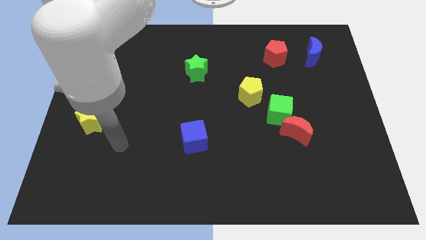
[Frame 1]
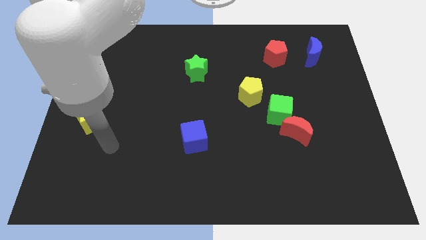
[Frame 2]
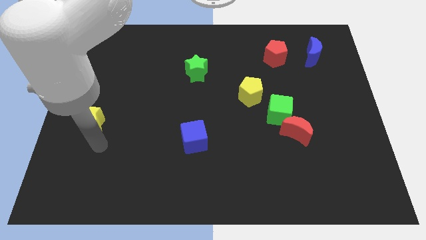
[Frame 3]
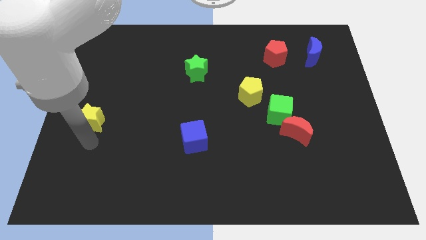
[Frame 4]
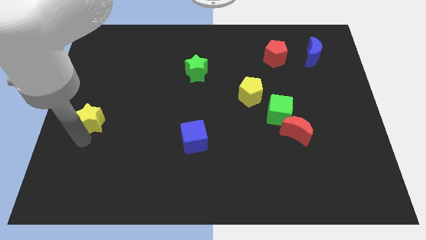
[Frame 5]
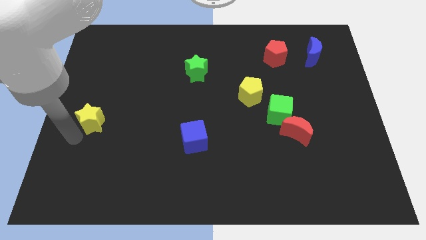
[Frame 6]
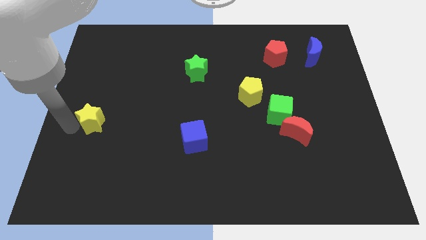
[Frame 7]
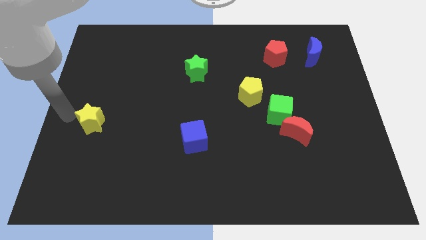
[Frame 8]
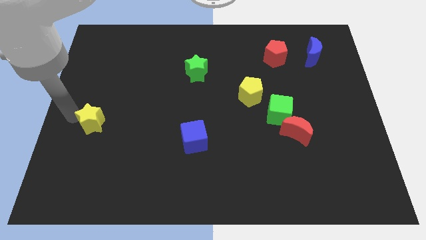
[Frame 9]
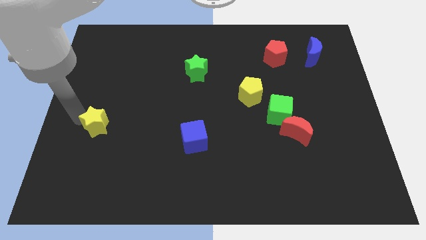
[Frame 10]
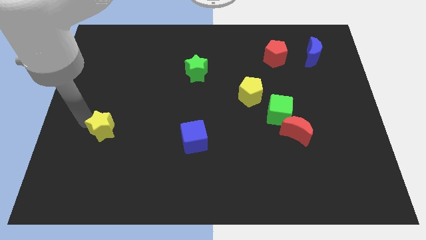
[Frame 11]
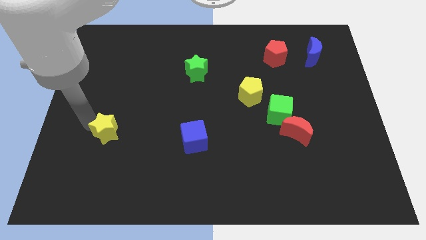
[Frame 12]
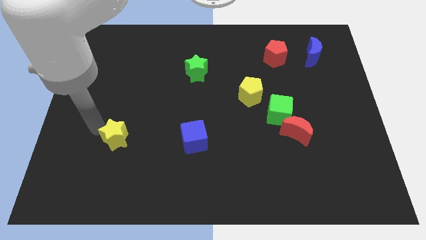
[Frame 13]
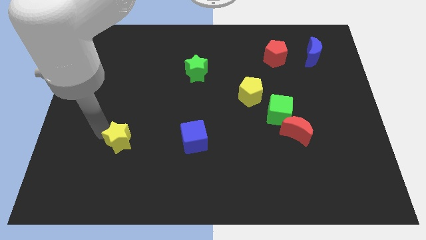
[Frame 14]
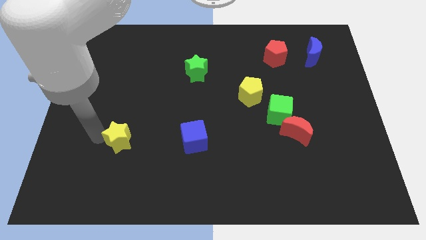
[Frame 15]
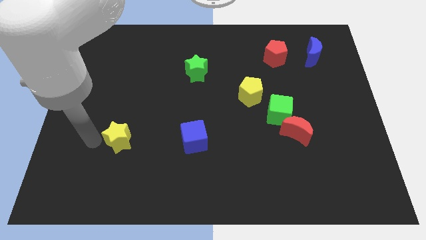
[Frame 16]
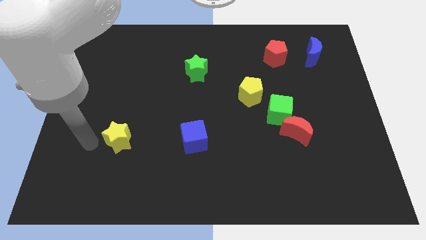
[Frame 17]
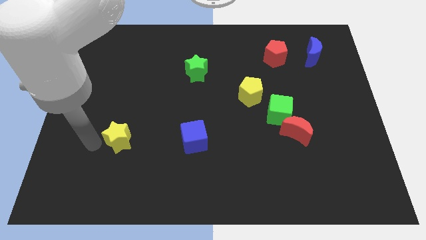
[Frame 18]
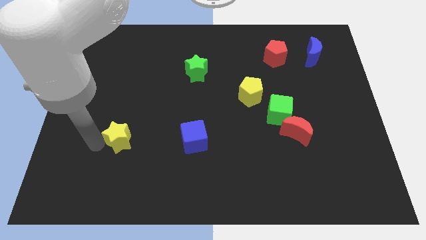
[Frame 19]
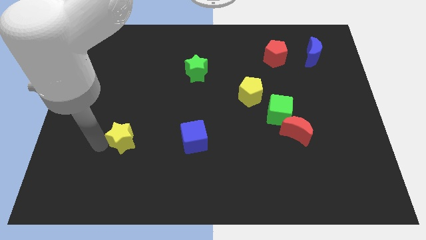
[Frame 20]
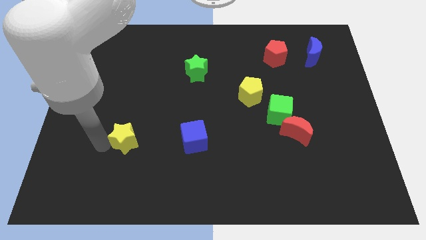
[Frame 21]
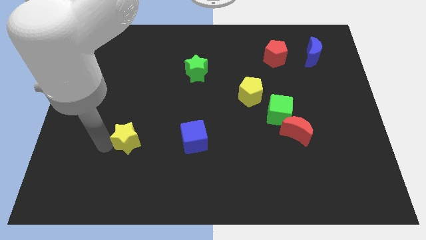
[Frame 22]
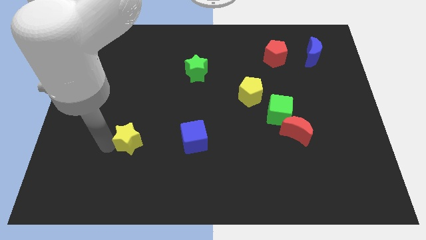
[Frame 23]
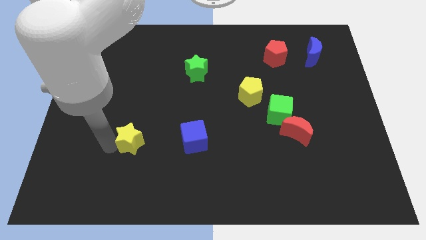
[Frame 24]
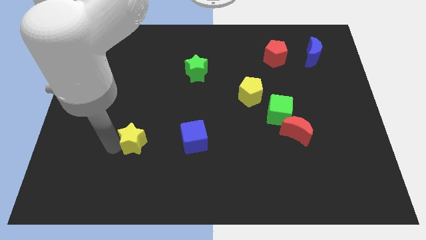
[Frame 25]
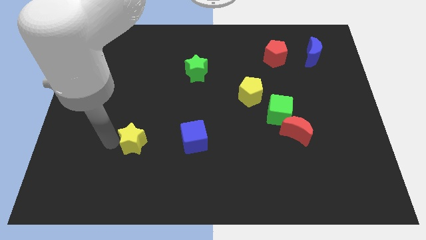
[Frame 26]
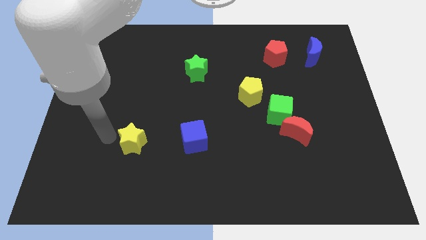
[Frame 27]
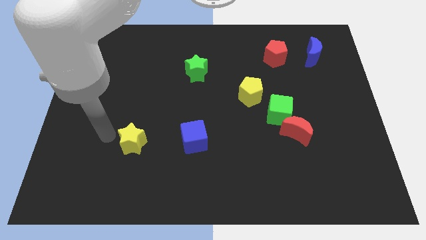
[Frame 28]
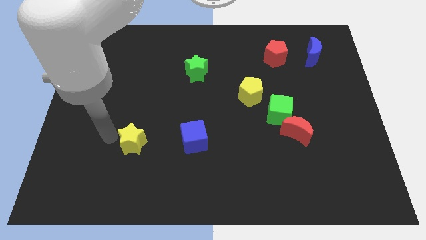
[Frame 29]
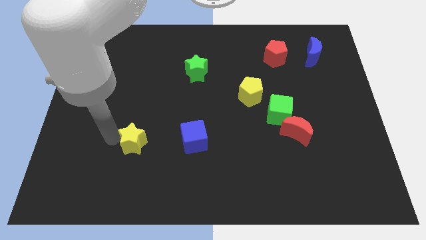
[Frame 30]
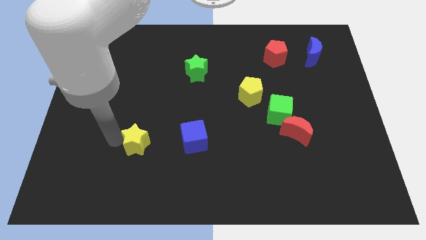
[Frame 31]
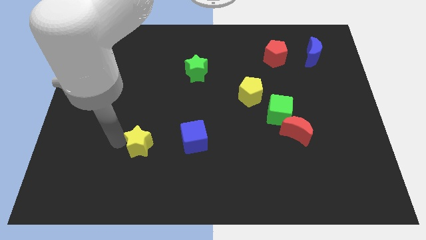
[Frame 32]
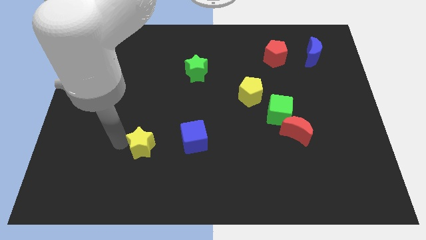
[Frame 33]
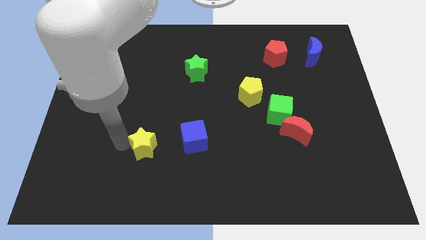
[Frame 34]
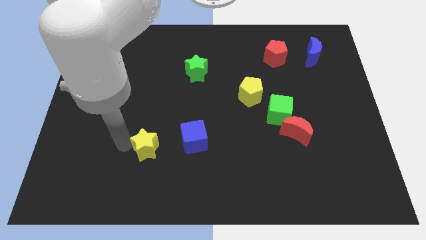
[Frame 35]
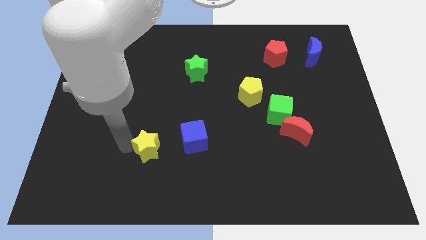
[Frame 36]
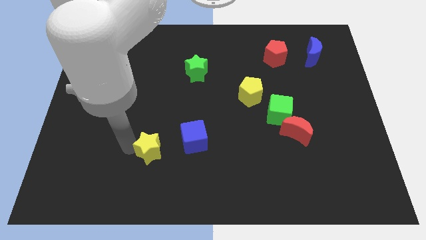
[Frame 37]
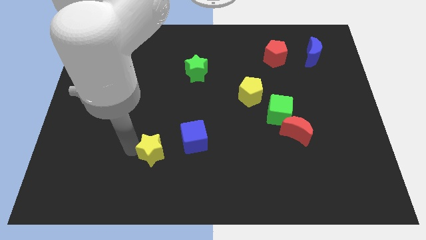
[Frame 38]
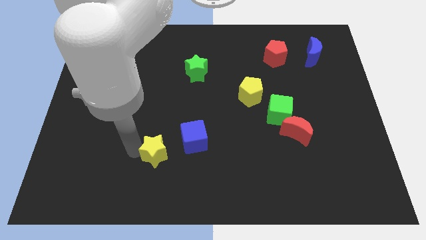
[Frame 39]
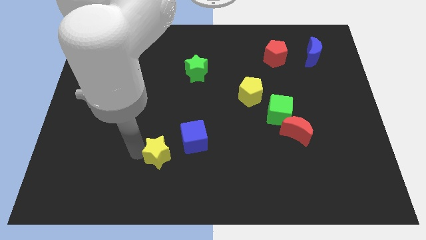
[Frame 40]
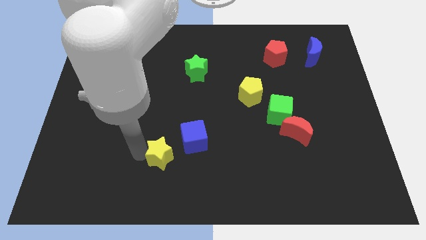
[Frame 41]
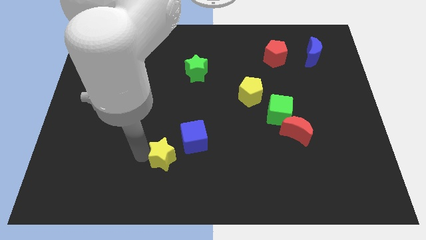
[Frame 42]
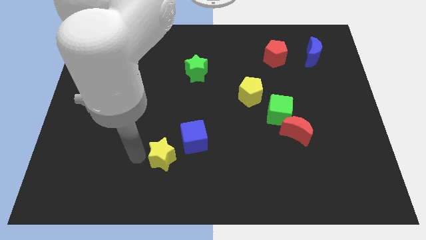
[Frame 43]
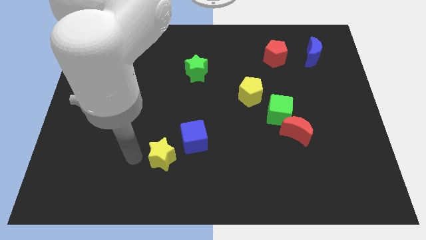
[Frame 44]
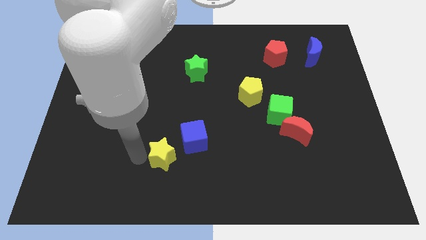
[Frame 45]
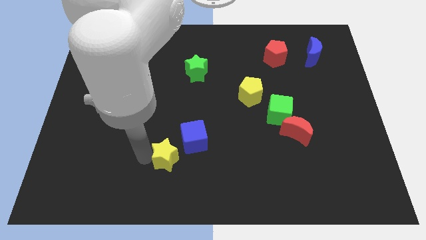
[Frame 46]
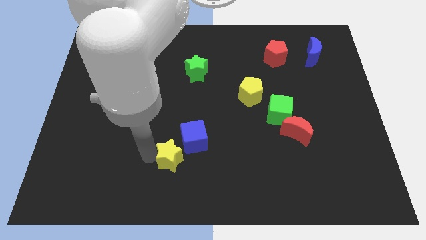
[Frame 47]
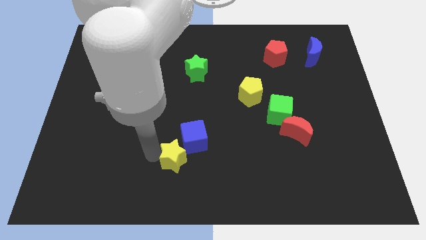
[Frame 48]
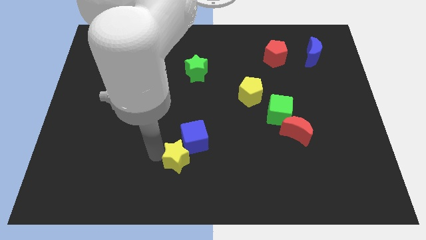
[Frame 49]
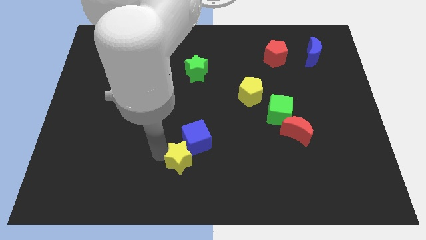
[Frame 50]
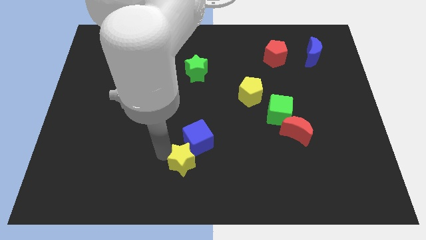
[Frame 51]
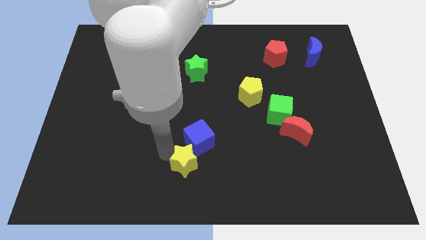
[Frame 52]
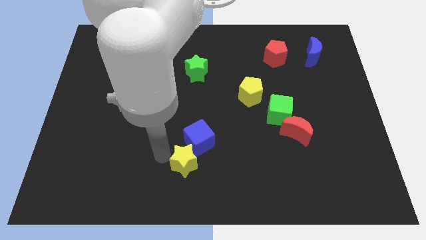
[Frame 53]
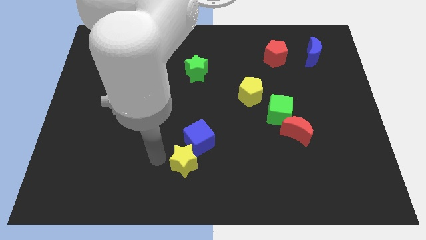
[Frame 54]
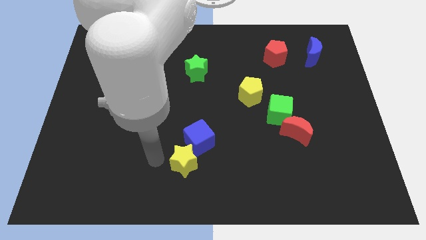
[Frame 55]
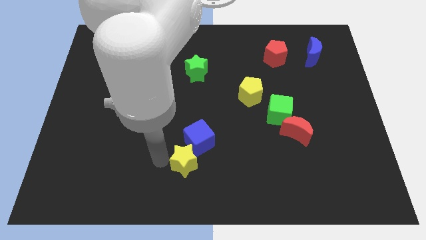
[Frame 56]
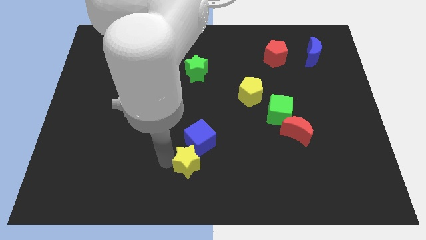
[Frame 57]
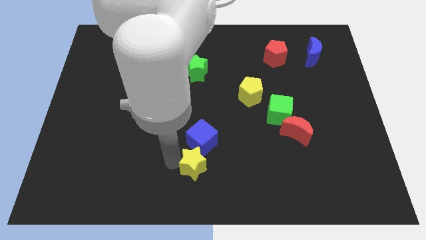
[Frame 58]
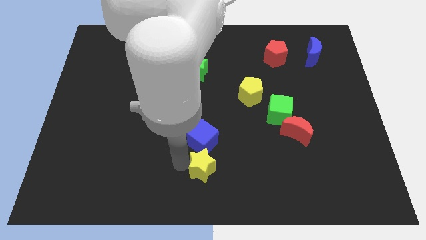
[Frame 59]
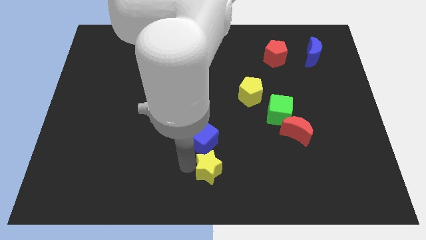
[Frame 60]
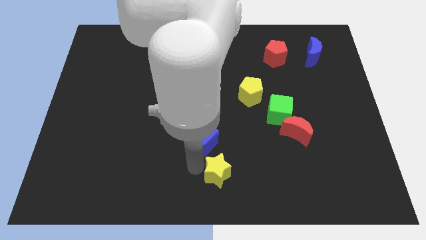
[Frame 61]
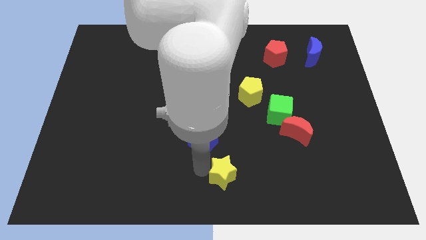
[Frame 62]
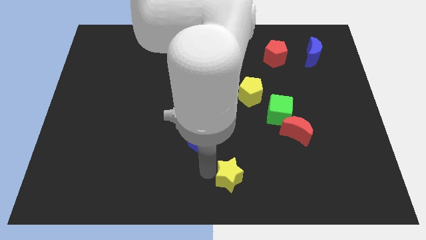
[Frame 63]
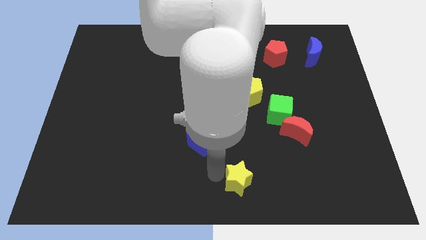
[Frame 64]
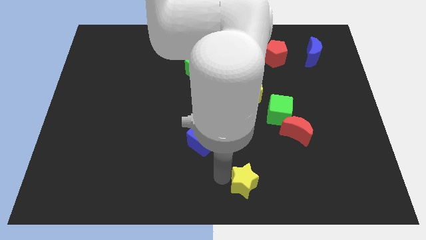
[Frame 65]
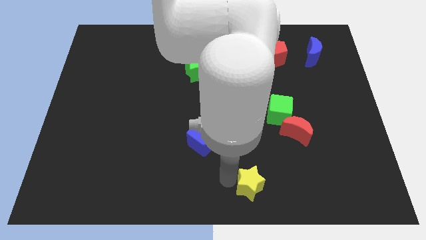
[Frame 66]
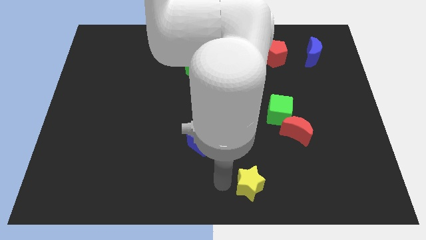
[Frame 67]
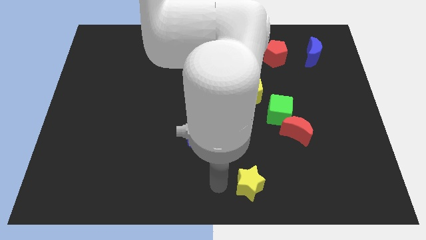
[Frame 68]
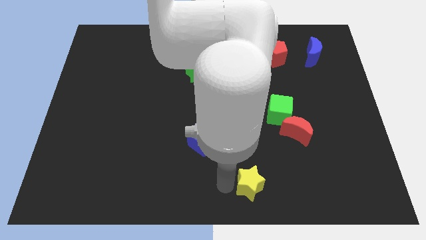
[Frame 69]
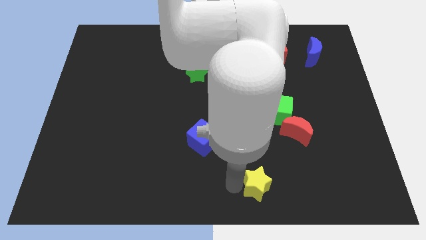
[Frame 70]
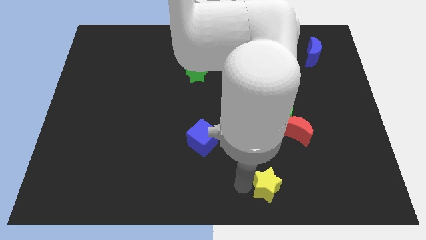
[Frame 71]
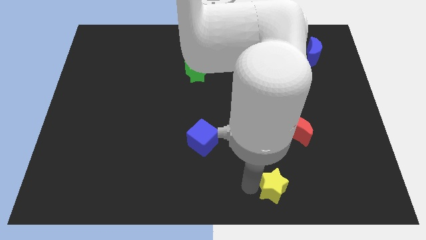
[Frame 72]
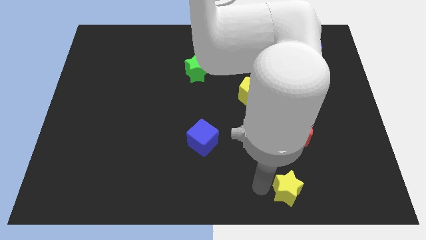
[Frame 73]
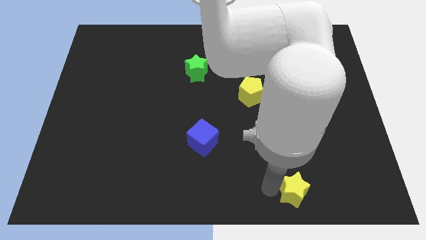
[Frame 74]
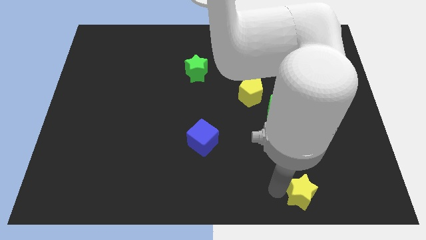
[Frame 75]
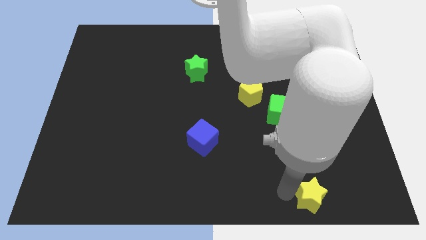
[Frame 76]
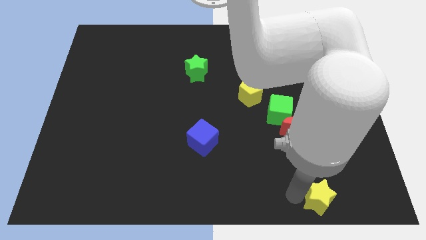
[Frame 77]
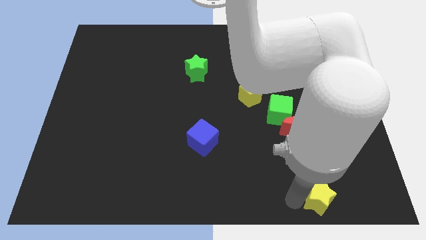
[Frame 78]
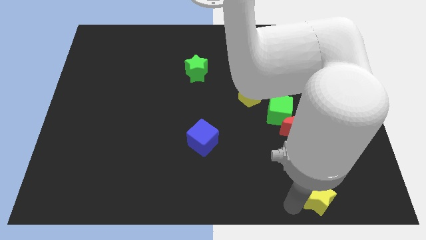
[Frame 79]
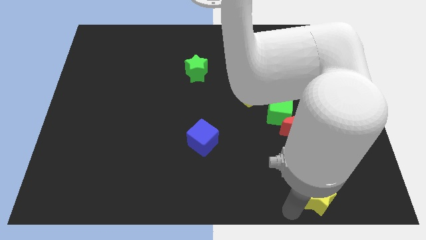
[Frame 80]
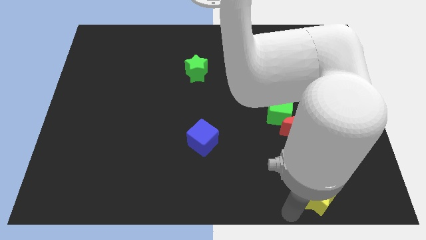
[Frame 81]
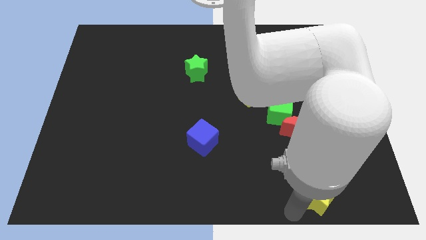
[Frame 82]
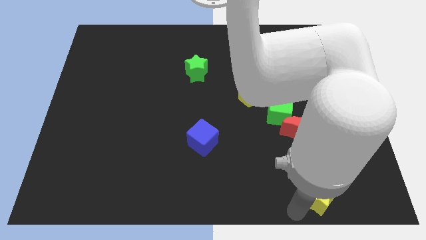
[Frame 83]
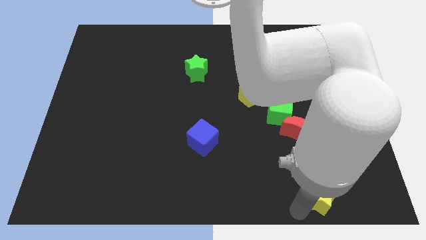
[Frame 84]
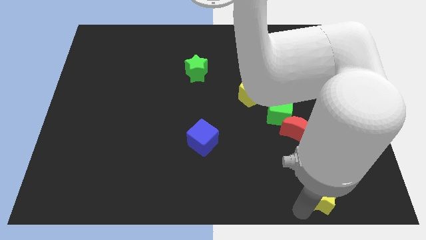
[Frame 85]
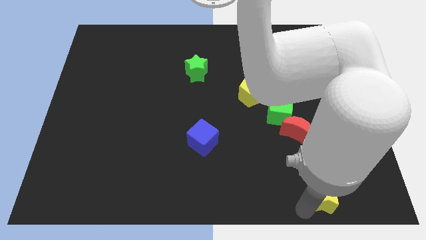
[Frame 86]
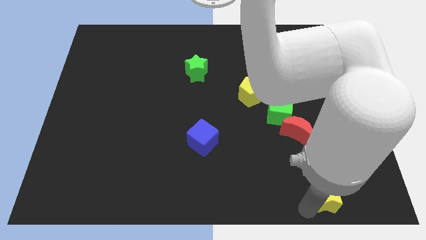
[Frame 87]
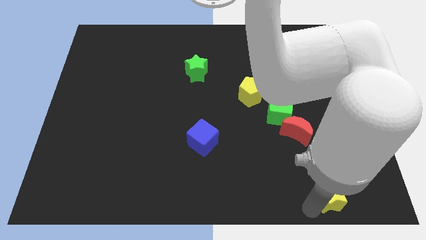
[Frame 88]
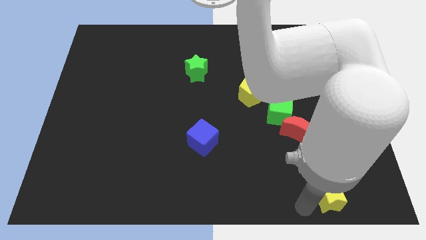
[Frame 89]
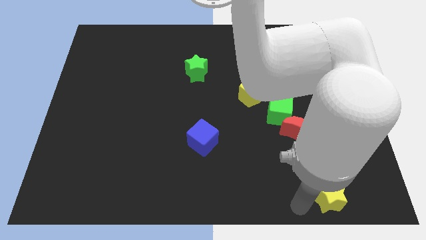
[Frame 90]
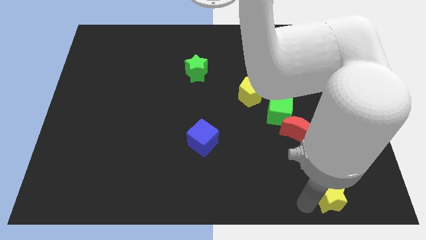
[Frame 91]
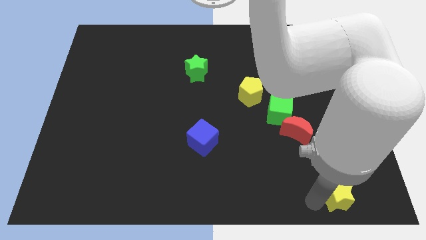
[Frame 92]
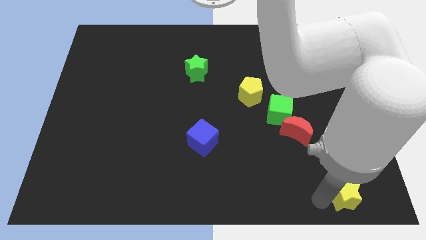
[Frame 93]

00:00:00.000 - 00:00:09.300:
move the yellow star to the lower right corner
